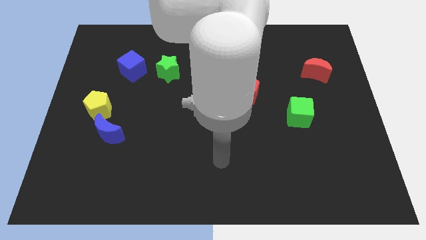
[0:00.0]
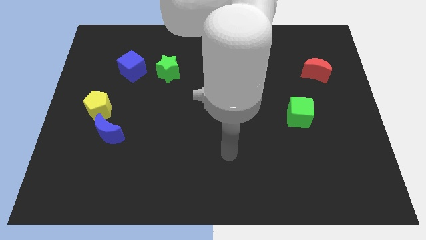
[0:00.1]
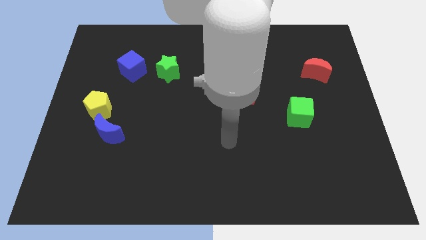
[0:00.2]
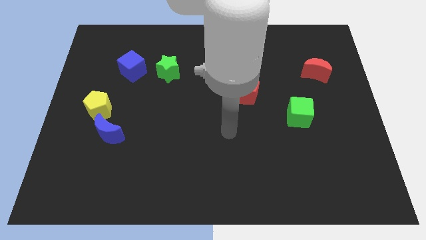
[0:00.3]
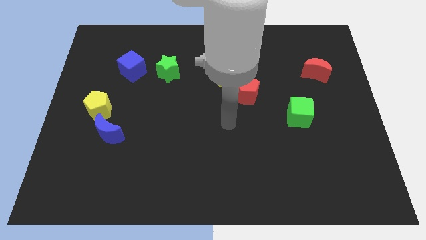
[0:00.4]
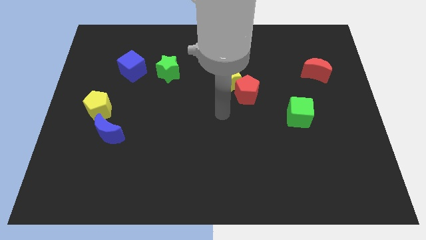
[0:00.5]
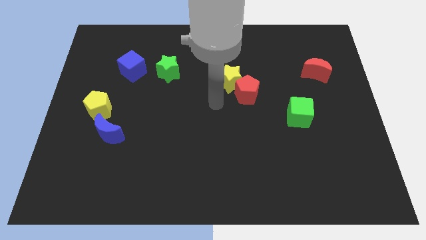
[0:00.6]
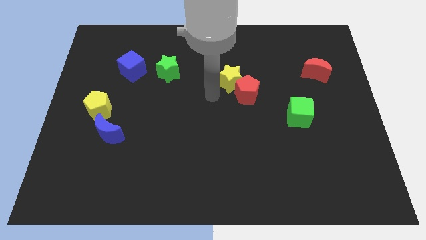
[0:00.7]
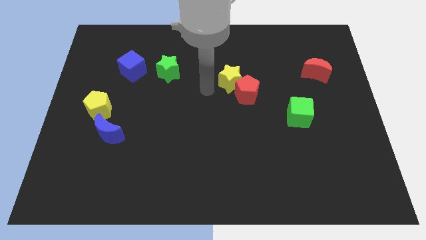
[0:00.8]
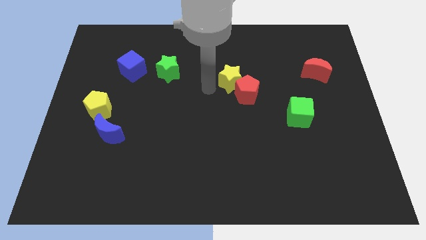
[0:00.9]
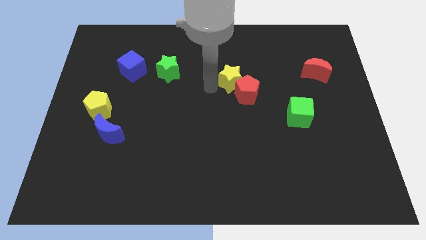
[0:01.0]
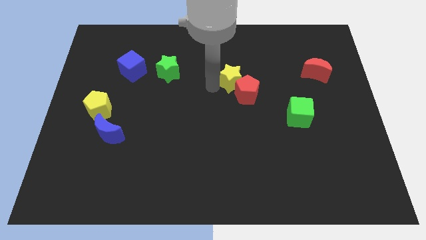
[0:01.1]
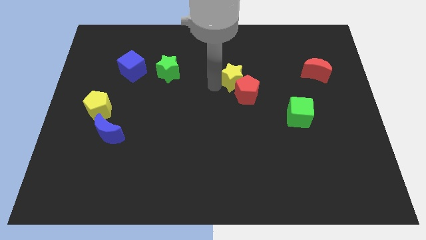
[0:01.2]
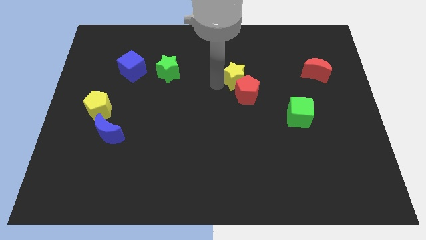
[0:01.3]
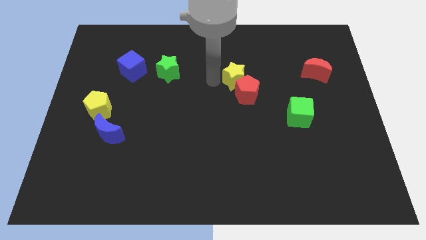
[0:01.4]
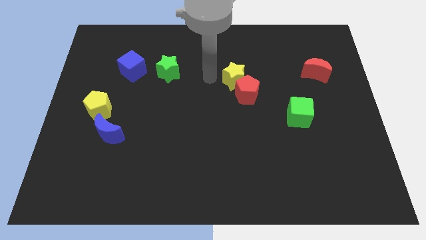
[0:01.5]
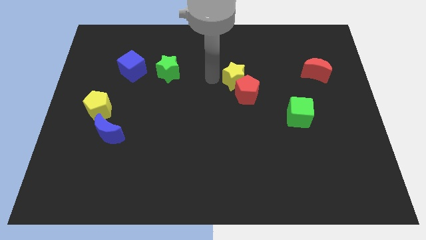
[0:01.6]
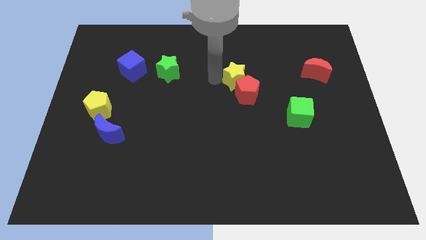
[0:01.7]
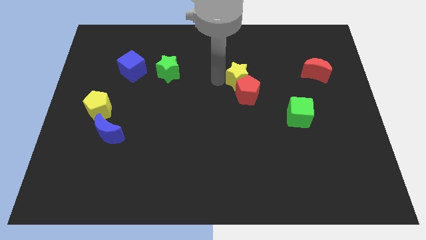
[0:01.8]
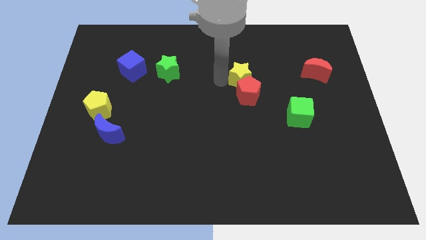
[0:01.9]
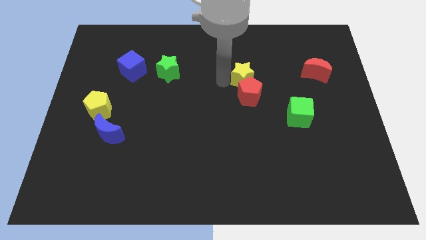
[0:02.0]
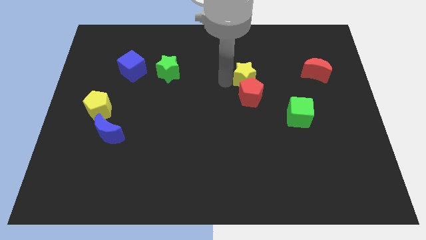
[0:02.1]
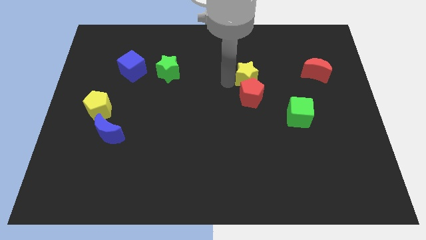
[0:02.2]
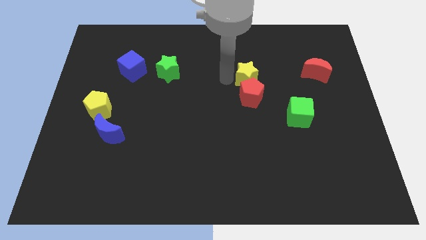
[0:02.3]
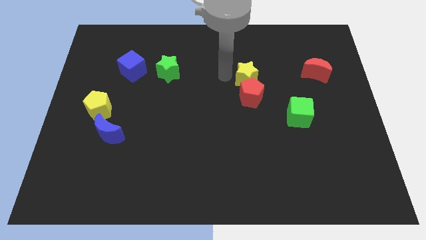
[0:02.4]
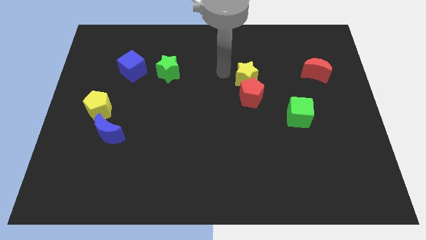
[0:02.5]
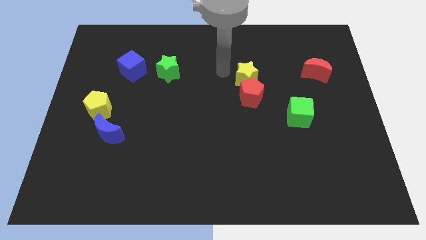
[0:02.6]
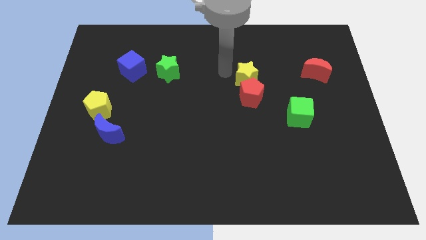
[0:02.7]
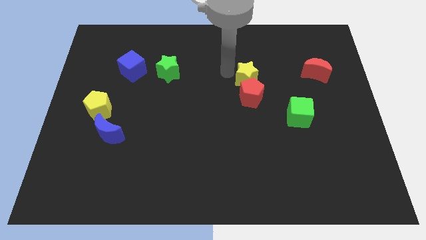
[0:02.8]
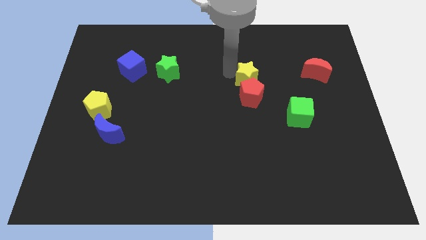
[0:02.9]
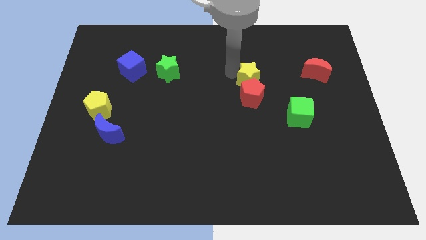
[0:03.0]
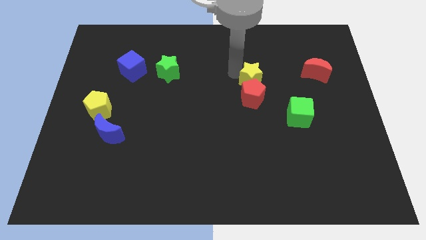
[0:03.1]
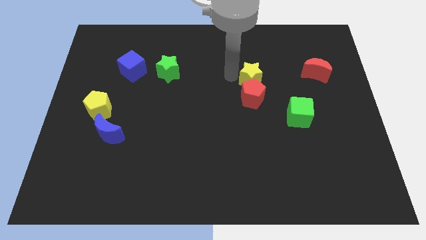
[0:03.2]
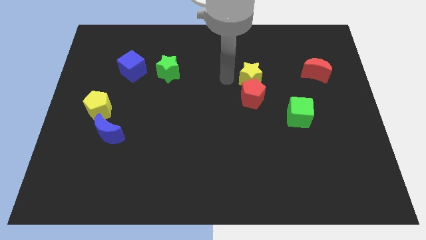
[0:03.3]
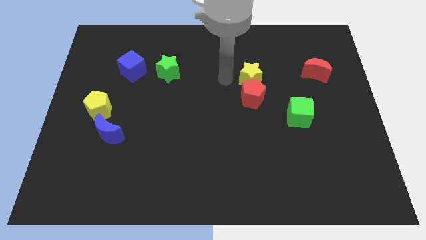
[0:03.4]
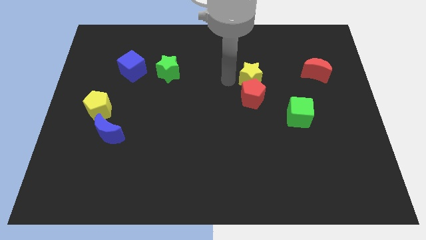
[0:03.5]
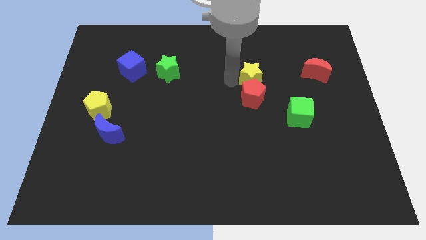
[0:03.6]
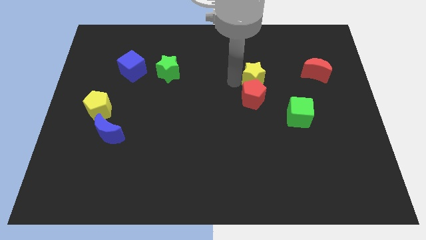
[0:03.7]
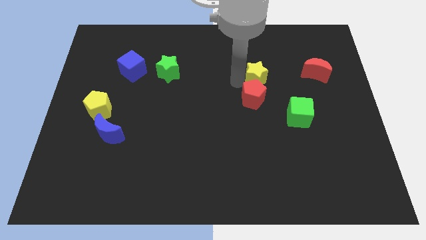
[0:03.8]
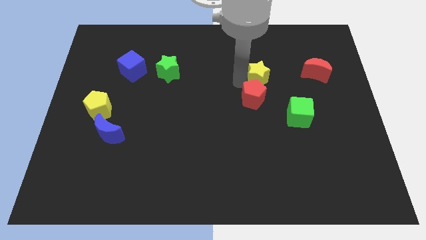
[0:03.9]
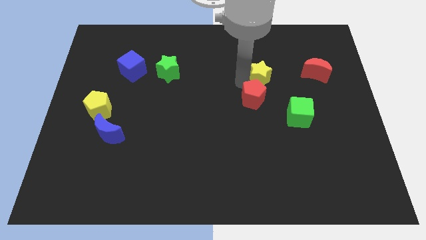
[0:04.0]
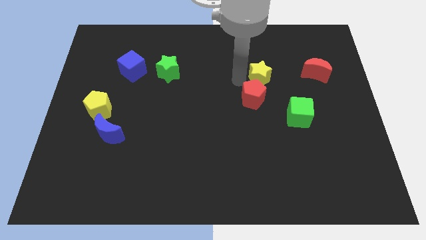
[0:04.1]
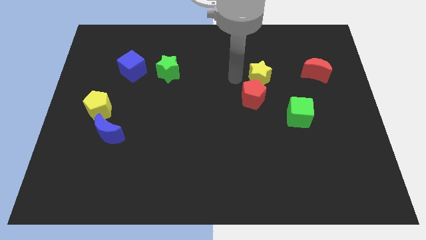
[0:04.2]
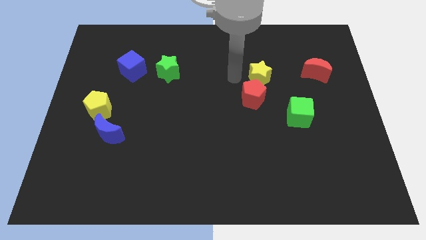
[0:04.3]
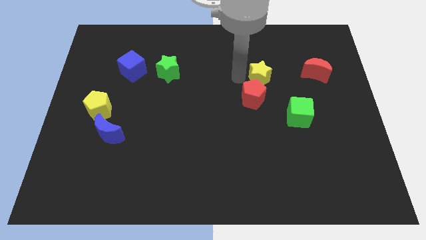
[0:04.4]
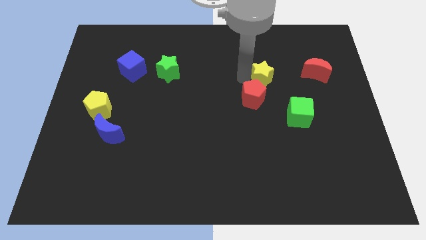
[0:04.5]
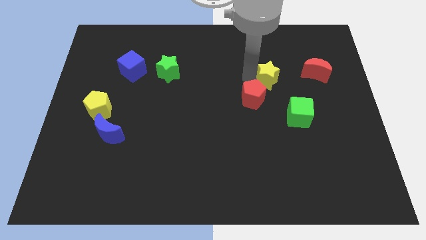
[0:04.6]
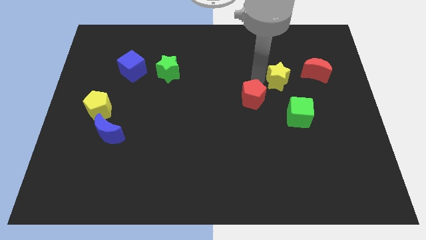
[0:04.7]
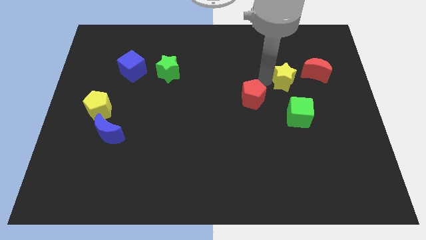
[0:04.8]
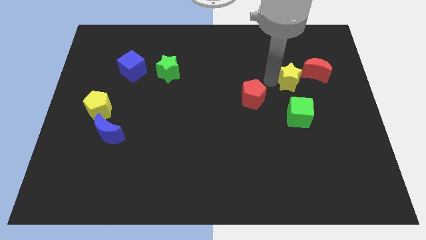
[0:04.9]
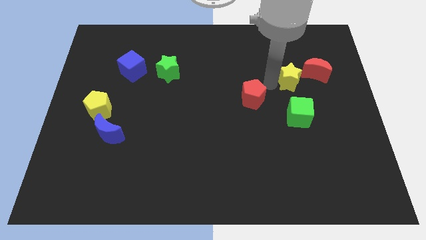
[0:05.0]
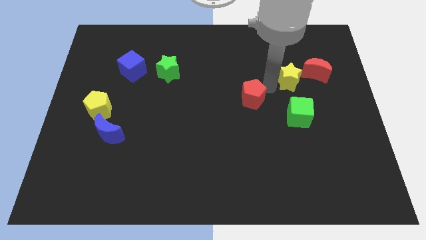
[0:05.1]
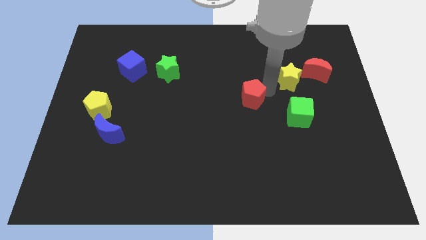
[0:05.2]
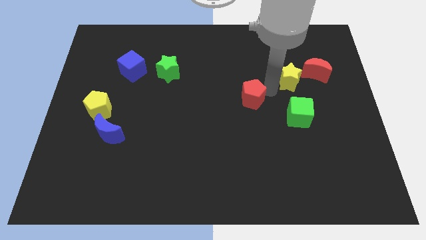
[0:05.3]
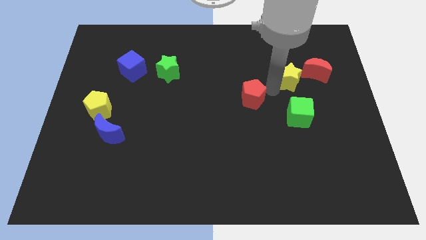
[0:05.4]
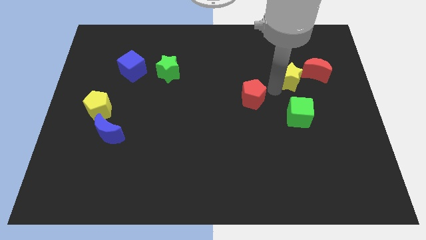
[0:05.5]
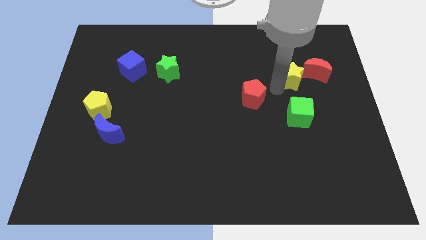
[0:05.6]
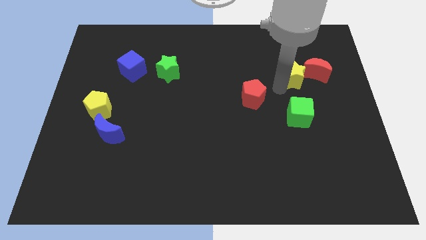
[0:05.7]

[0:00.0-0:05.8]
move the yellow star close to the red moon

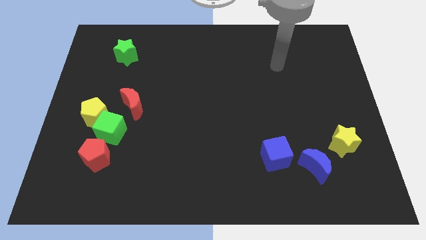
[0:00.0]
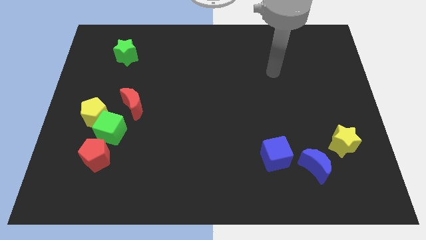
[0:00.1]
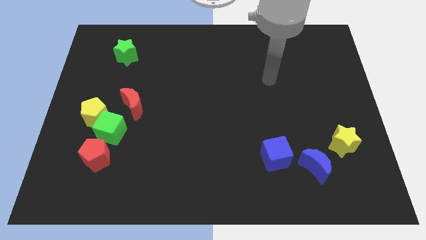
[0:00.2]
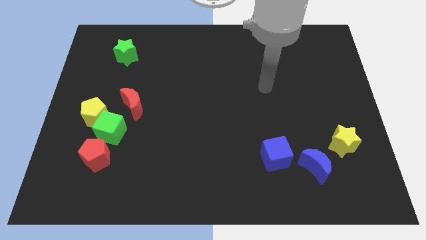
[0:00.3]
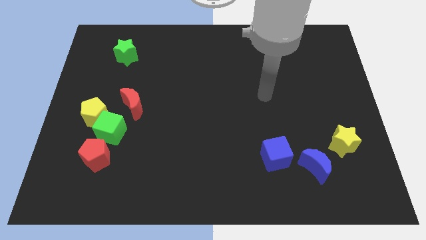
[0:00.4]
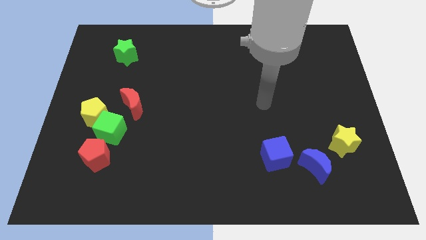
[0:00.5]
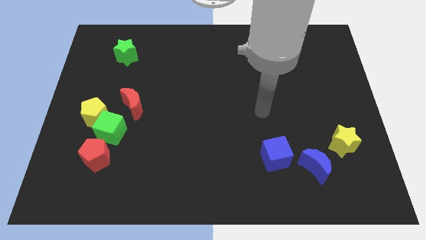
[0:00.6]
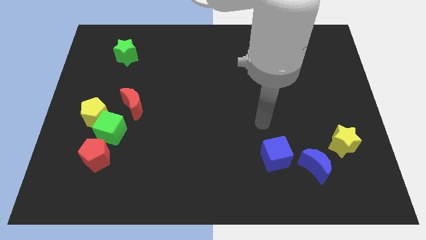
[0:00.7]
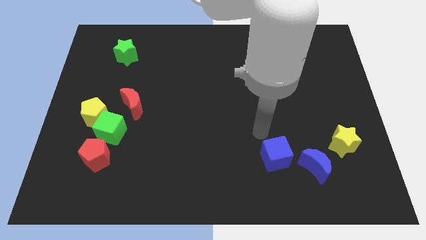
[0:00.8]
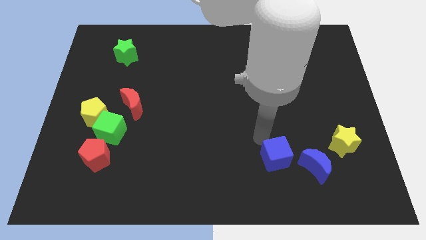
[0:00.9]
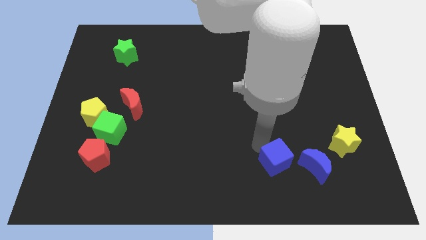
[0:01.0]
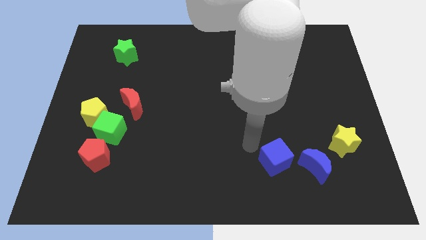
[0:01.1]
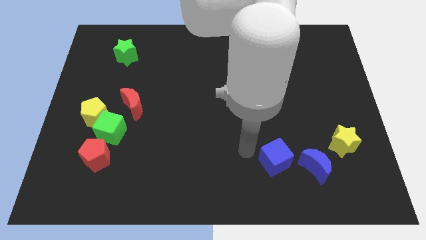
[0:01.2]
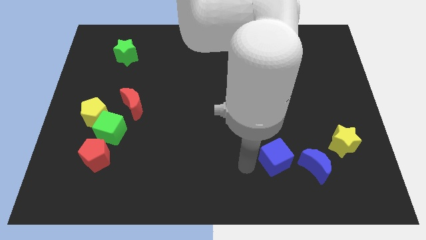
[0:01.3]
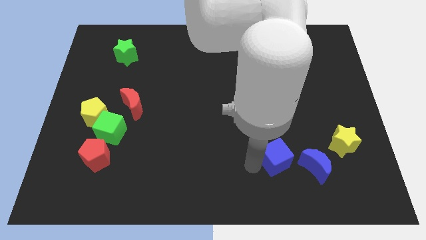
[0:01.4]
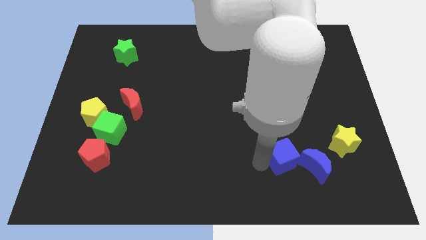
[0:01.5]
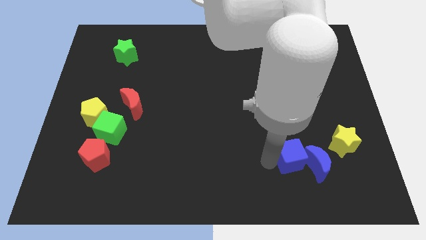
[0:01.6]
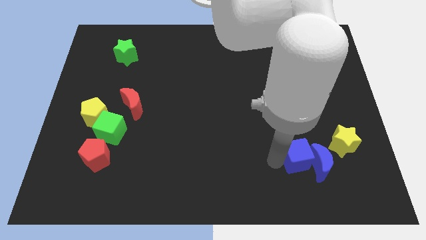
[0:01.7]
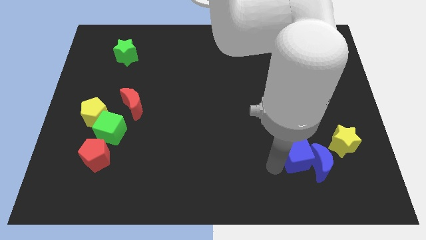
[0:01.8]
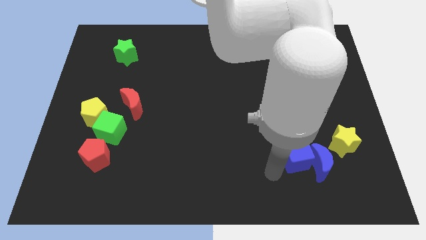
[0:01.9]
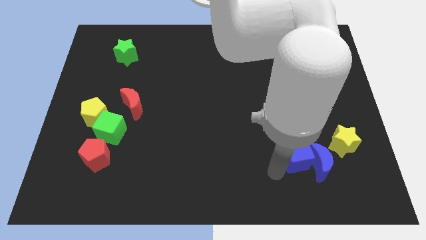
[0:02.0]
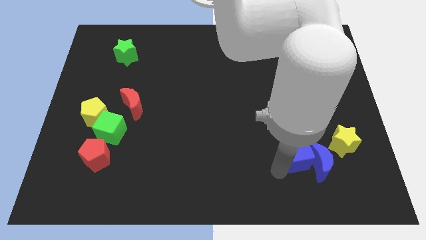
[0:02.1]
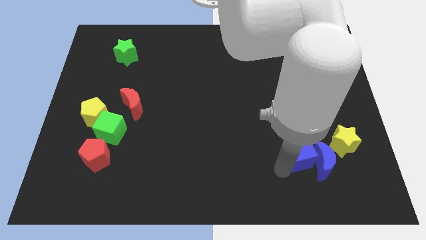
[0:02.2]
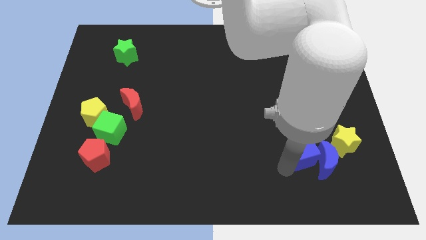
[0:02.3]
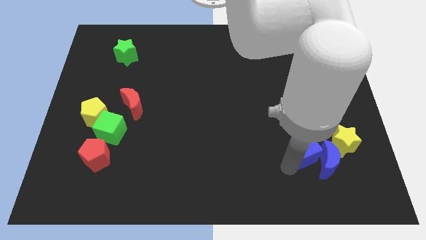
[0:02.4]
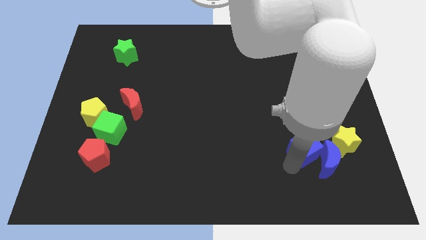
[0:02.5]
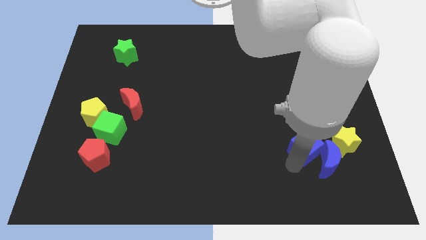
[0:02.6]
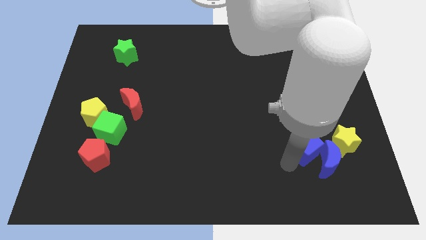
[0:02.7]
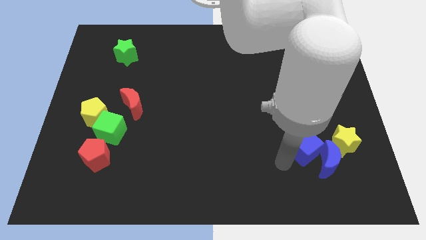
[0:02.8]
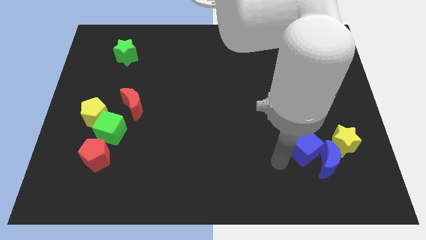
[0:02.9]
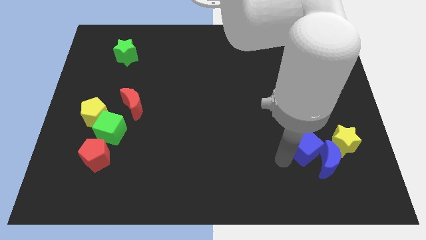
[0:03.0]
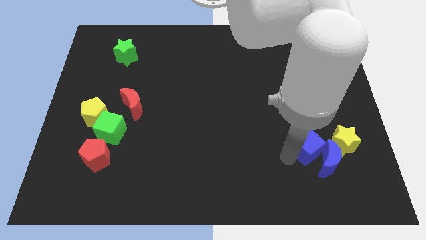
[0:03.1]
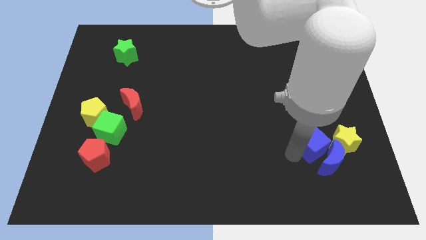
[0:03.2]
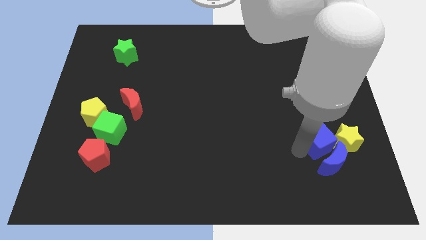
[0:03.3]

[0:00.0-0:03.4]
slide the blue cube towards the yellow star
